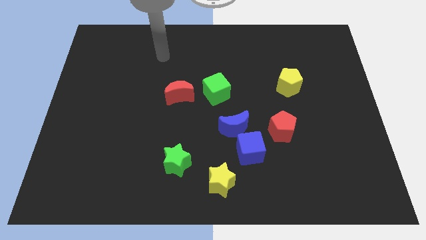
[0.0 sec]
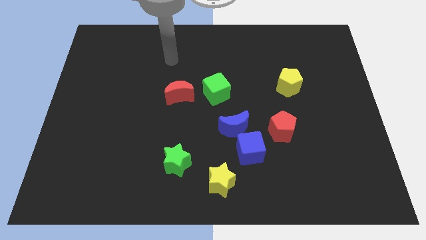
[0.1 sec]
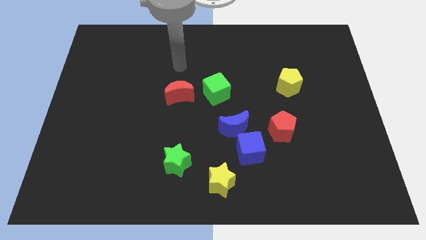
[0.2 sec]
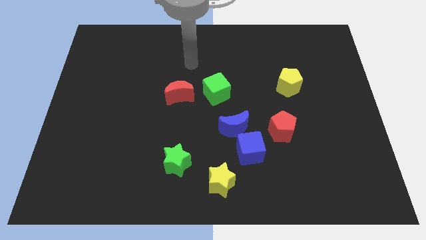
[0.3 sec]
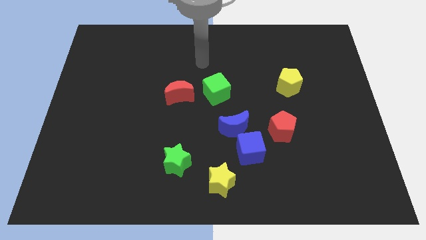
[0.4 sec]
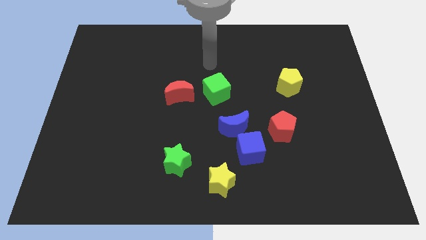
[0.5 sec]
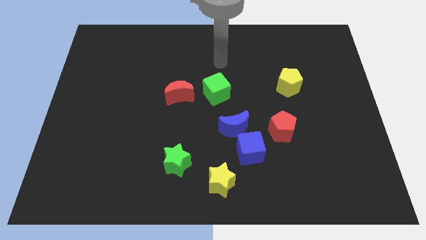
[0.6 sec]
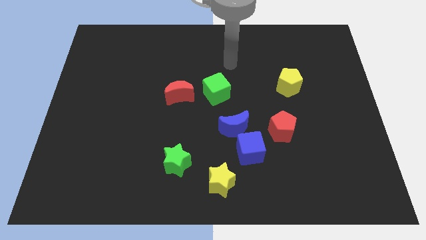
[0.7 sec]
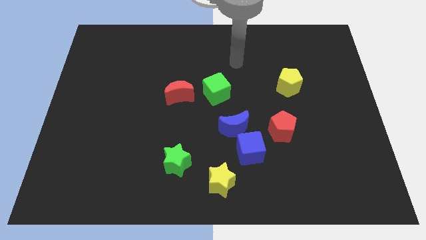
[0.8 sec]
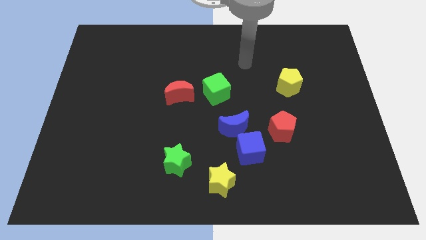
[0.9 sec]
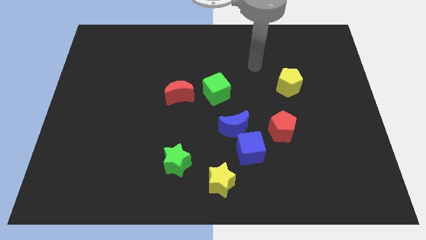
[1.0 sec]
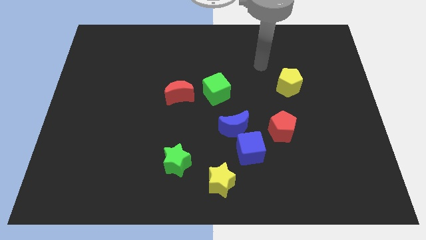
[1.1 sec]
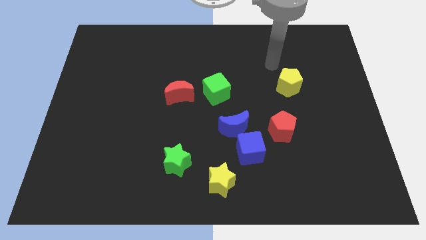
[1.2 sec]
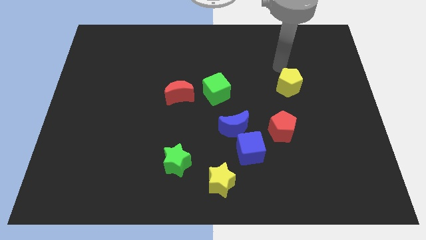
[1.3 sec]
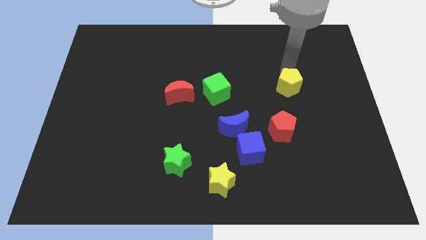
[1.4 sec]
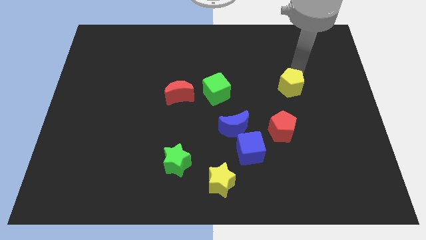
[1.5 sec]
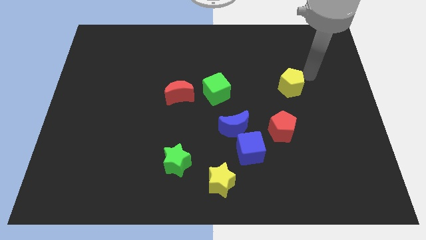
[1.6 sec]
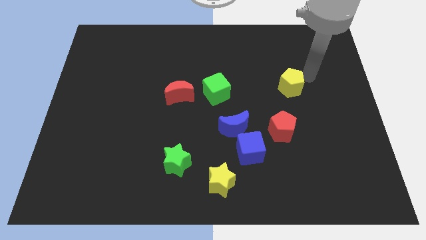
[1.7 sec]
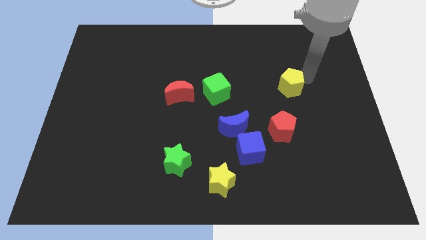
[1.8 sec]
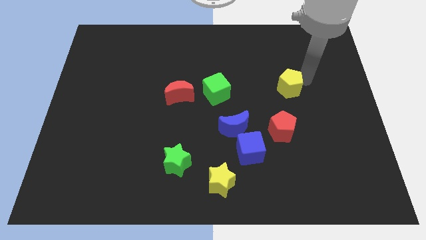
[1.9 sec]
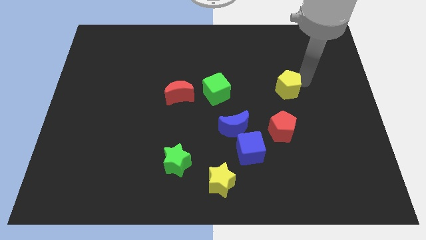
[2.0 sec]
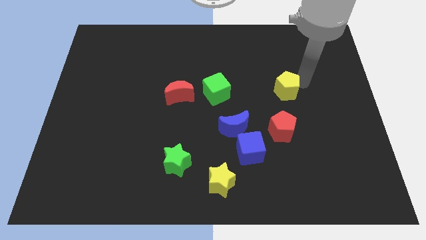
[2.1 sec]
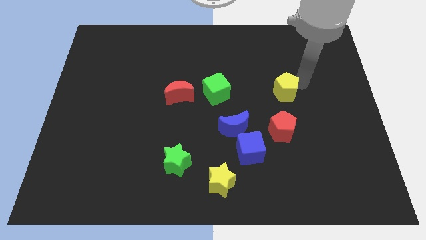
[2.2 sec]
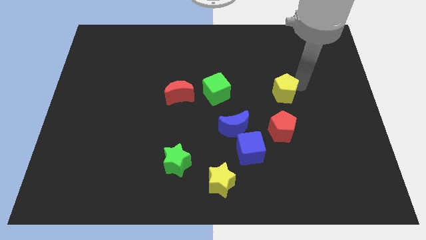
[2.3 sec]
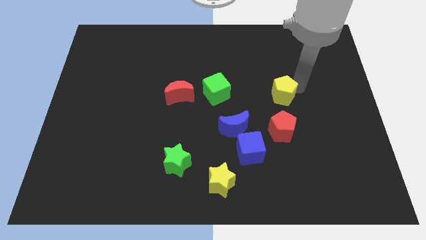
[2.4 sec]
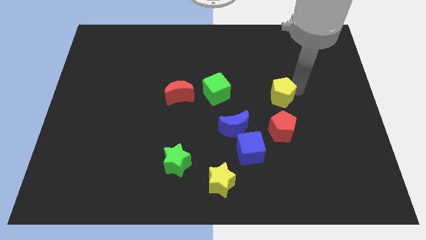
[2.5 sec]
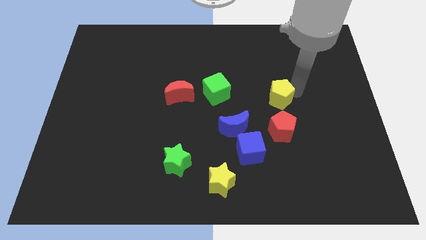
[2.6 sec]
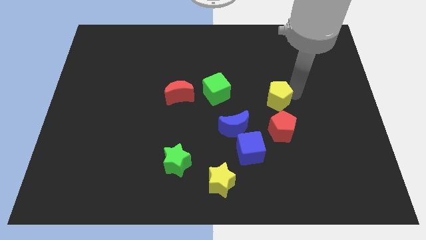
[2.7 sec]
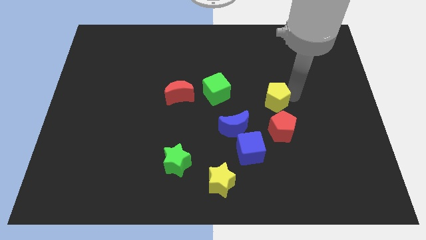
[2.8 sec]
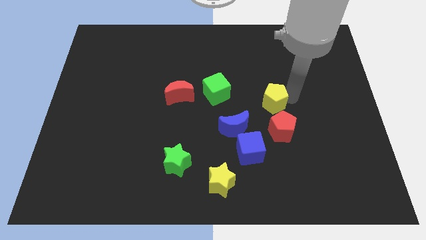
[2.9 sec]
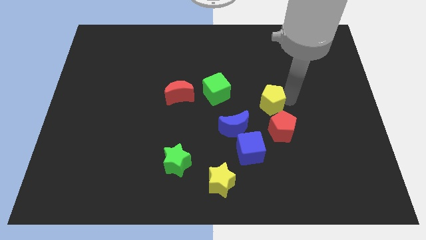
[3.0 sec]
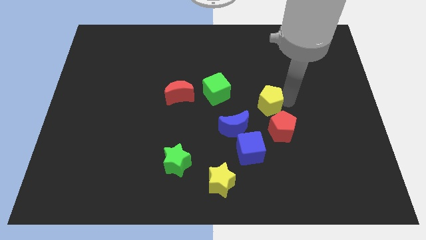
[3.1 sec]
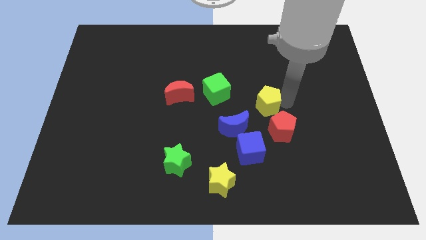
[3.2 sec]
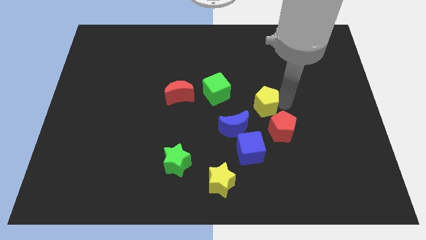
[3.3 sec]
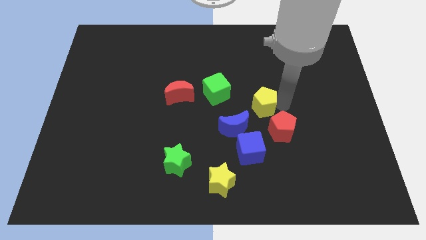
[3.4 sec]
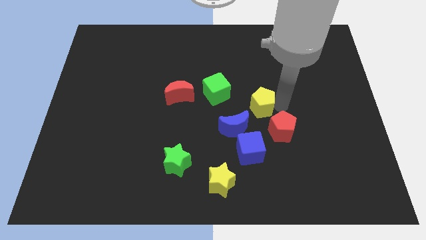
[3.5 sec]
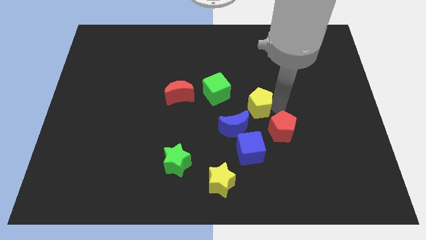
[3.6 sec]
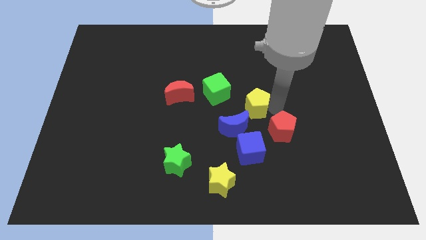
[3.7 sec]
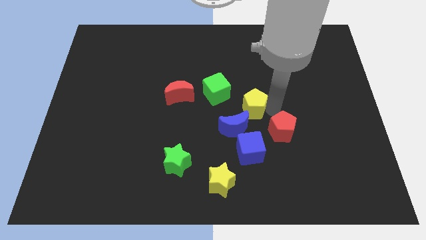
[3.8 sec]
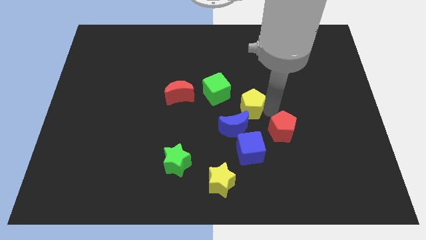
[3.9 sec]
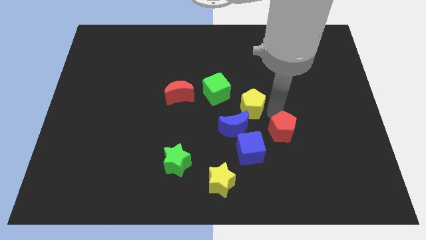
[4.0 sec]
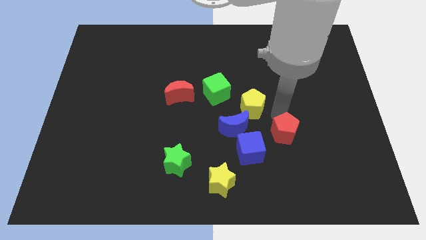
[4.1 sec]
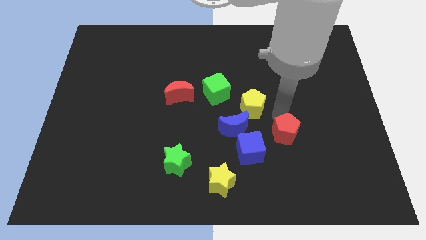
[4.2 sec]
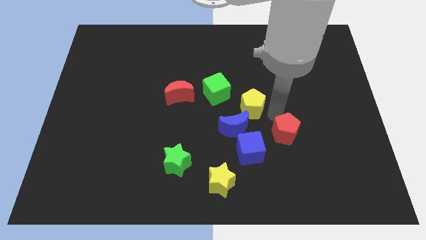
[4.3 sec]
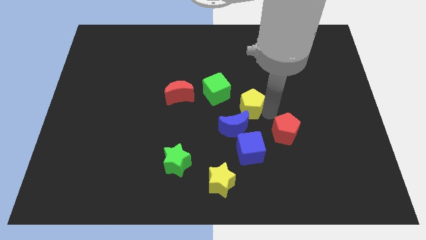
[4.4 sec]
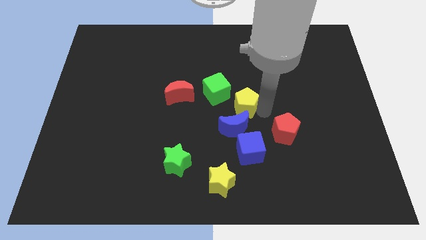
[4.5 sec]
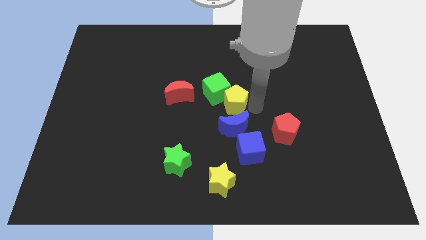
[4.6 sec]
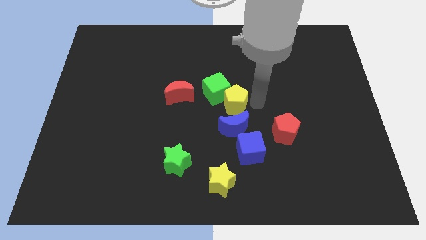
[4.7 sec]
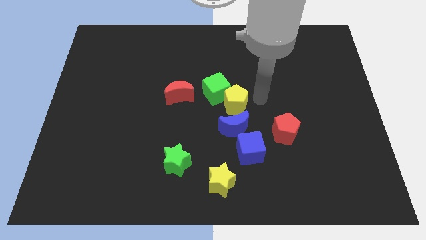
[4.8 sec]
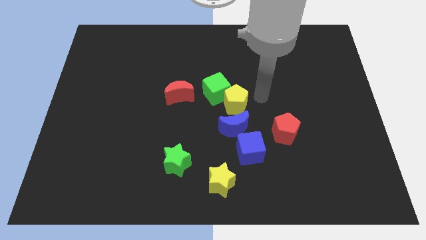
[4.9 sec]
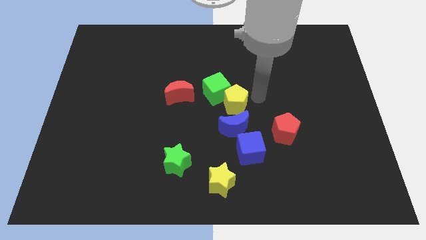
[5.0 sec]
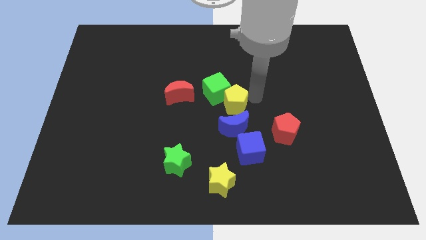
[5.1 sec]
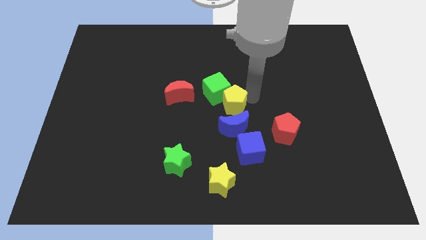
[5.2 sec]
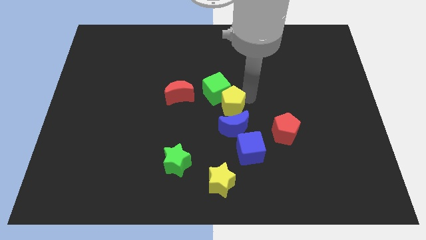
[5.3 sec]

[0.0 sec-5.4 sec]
move the yellow pentagon diagonally up and to the left of the blue moon
